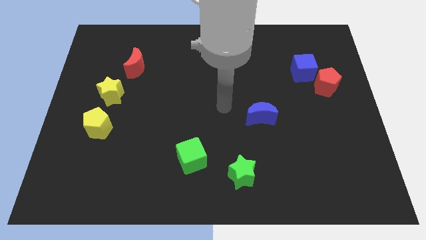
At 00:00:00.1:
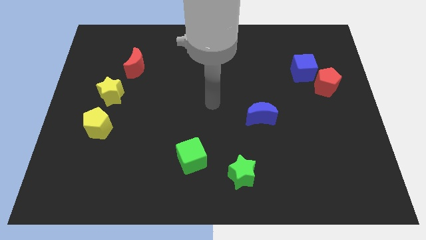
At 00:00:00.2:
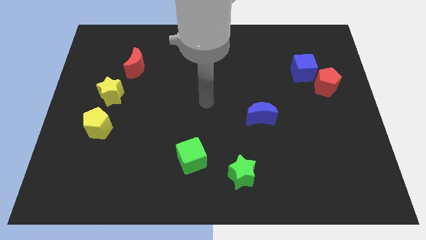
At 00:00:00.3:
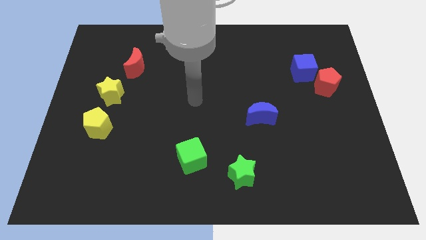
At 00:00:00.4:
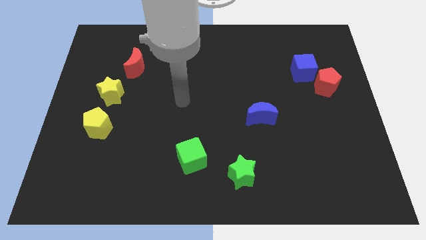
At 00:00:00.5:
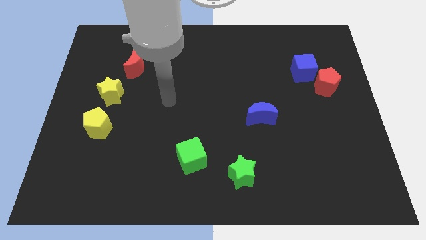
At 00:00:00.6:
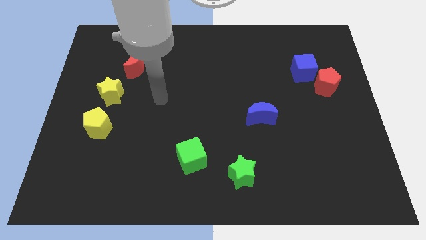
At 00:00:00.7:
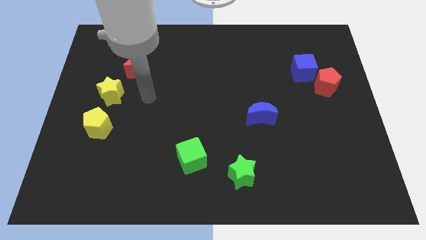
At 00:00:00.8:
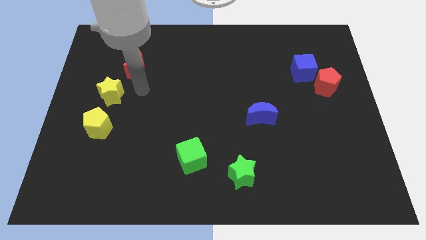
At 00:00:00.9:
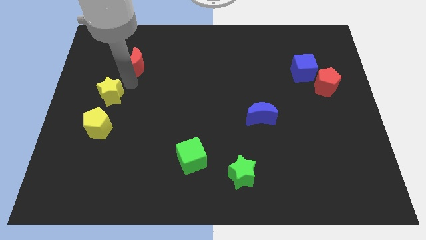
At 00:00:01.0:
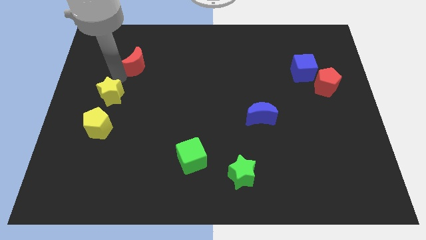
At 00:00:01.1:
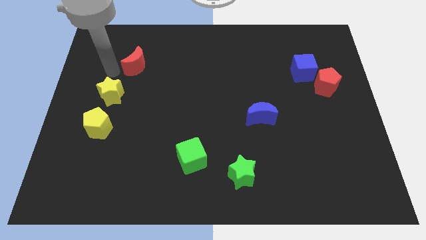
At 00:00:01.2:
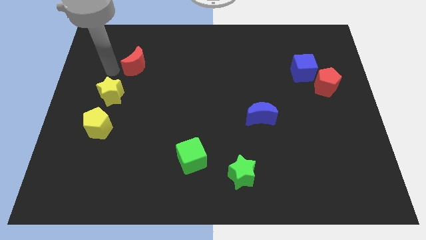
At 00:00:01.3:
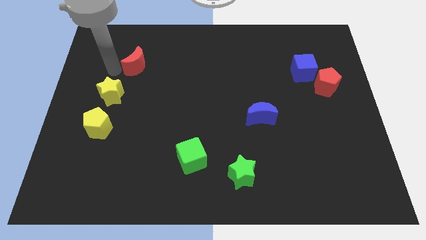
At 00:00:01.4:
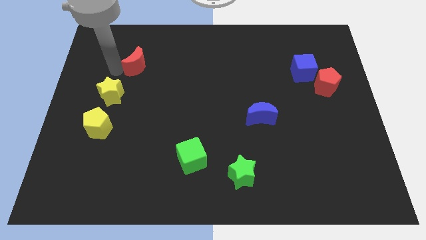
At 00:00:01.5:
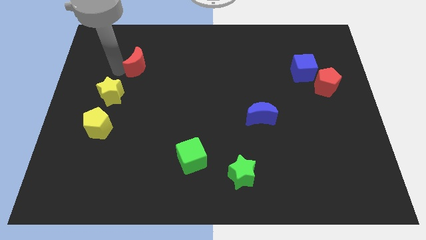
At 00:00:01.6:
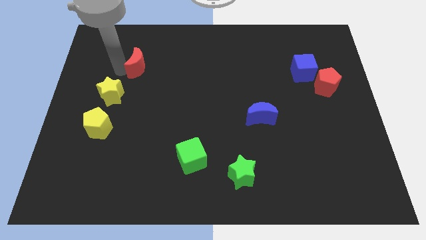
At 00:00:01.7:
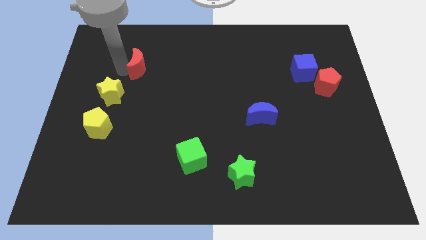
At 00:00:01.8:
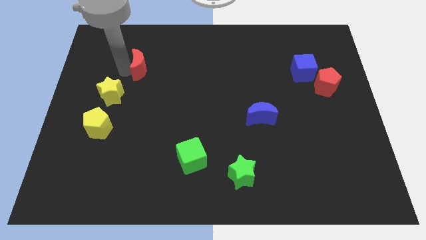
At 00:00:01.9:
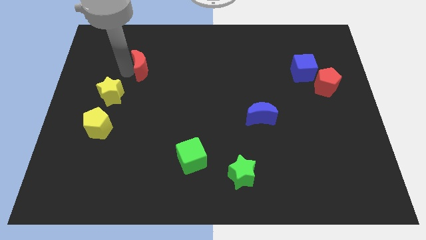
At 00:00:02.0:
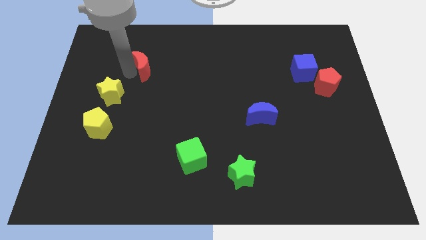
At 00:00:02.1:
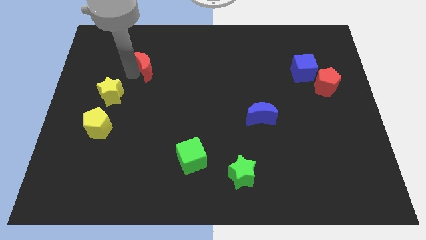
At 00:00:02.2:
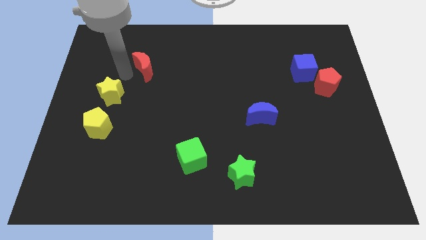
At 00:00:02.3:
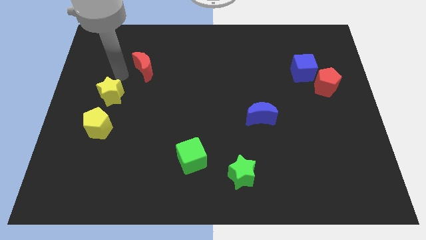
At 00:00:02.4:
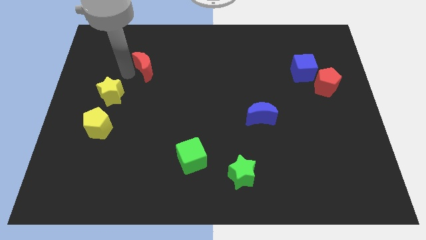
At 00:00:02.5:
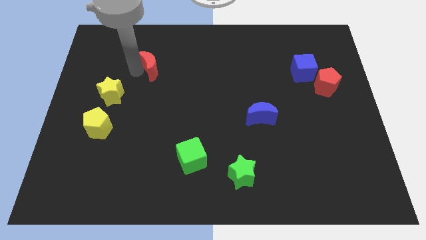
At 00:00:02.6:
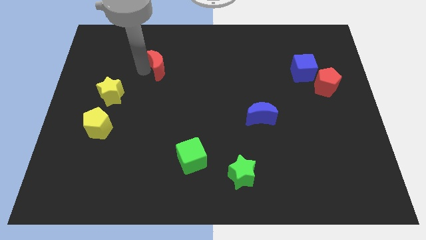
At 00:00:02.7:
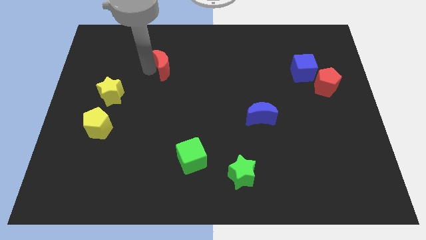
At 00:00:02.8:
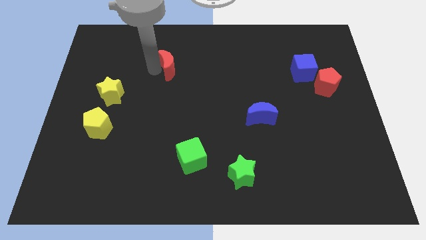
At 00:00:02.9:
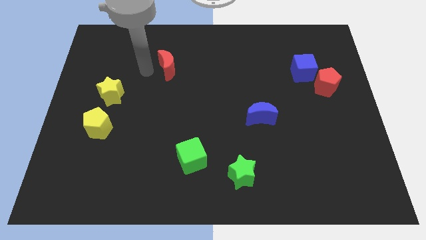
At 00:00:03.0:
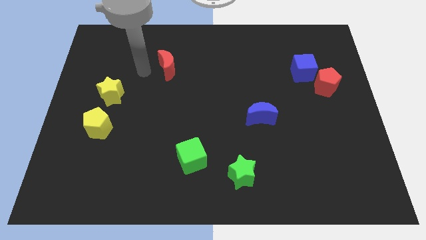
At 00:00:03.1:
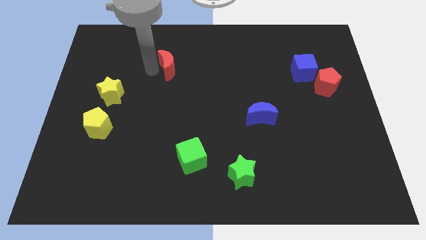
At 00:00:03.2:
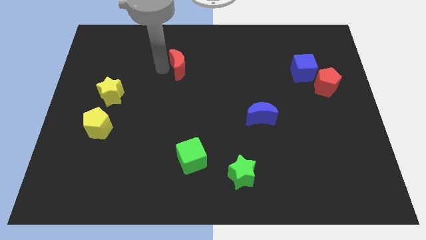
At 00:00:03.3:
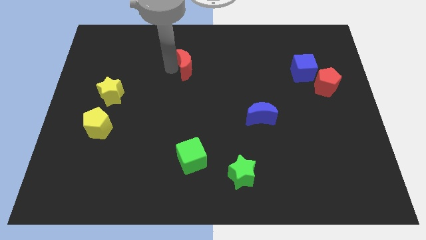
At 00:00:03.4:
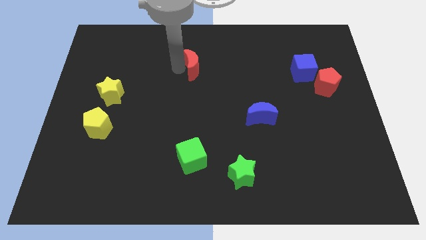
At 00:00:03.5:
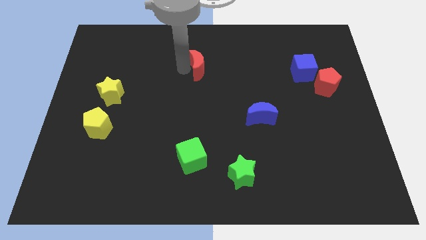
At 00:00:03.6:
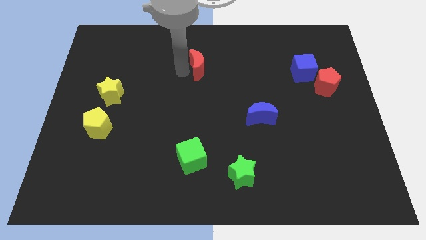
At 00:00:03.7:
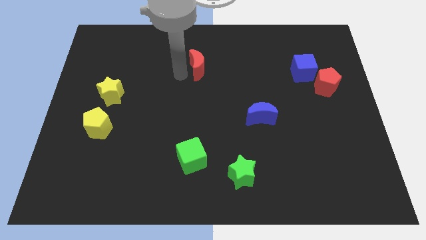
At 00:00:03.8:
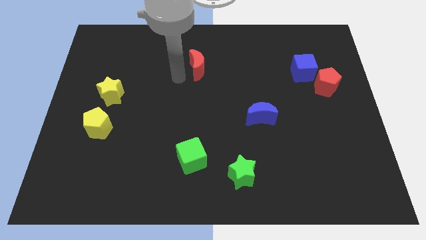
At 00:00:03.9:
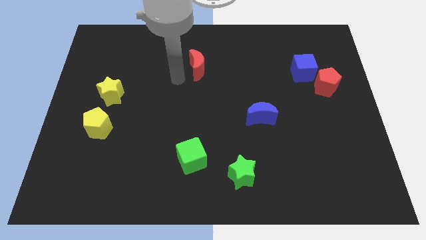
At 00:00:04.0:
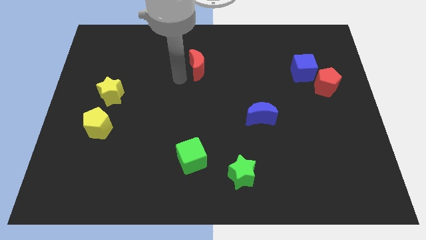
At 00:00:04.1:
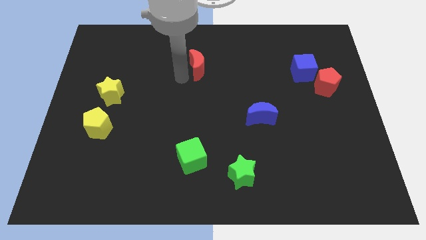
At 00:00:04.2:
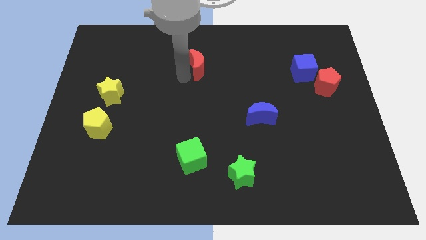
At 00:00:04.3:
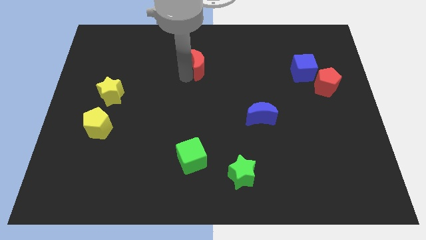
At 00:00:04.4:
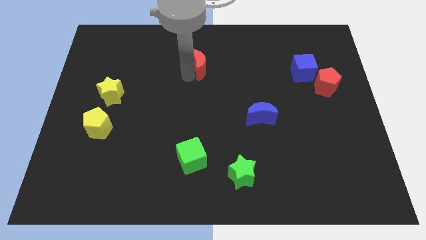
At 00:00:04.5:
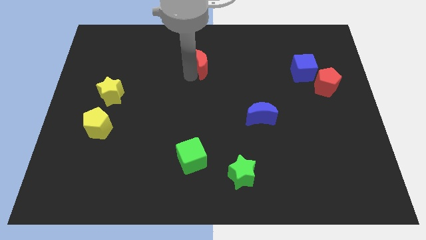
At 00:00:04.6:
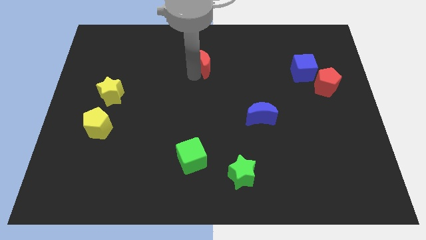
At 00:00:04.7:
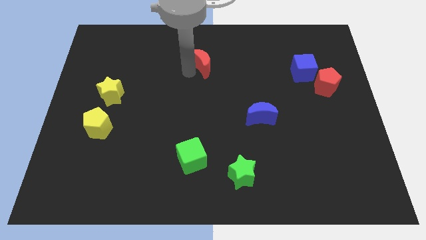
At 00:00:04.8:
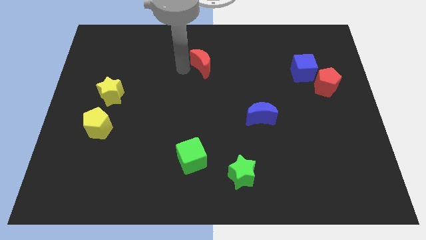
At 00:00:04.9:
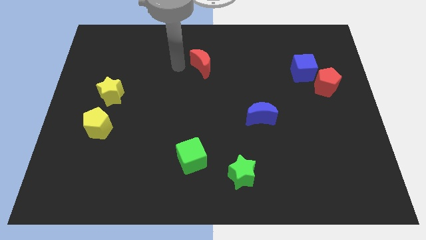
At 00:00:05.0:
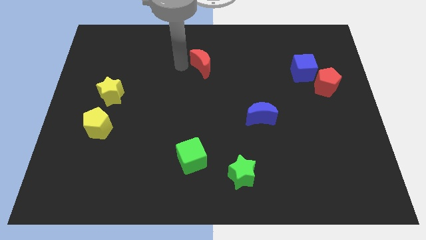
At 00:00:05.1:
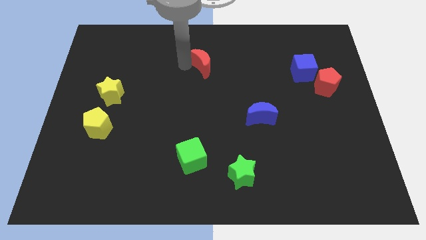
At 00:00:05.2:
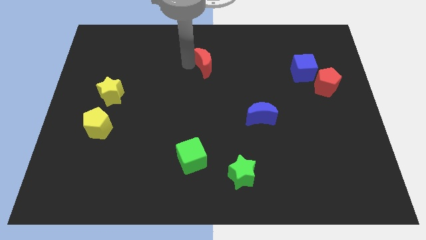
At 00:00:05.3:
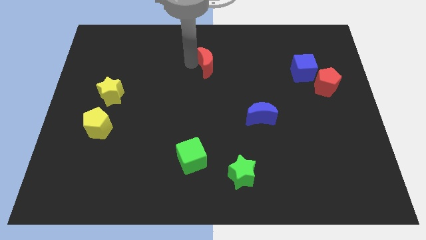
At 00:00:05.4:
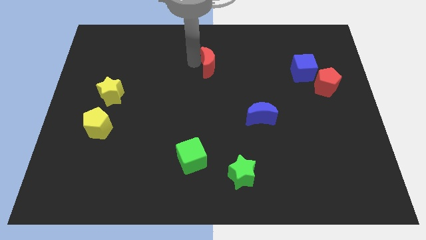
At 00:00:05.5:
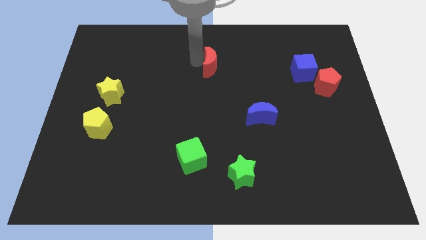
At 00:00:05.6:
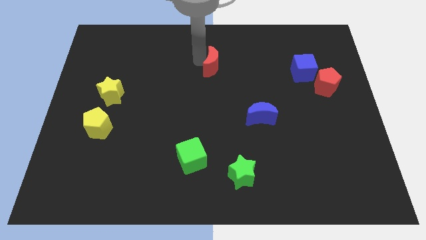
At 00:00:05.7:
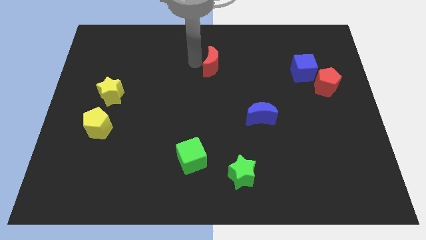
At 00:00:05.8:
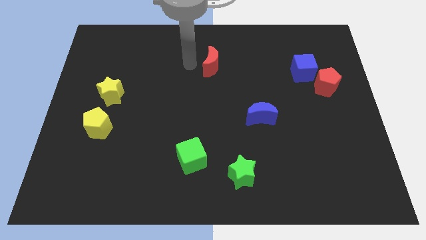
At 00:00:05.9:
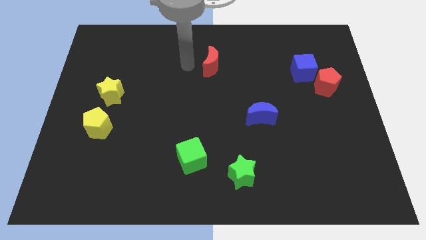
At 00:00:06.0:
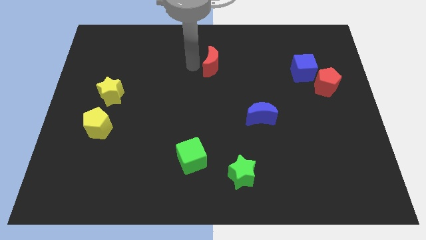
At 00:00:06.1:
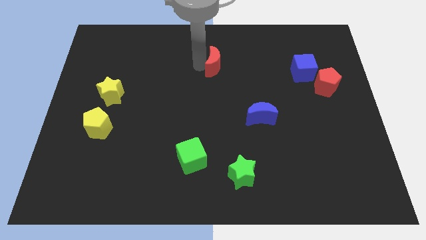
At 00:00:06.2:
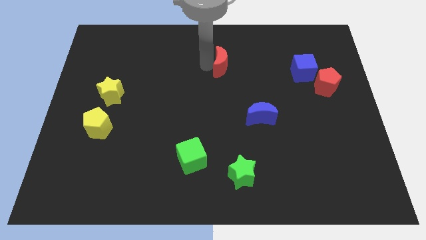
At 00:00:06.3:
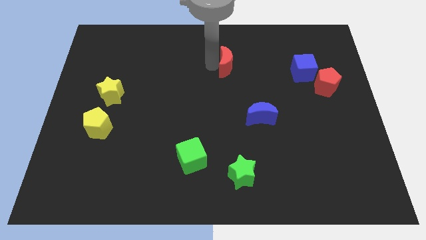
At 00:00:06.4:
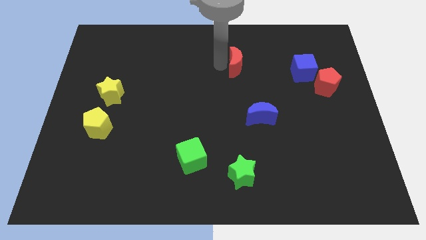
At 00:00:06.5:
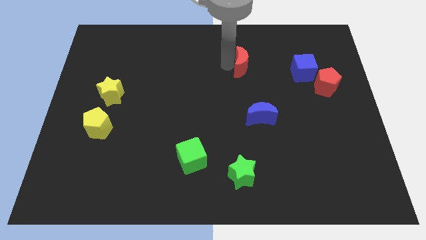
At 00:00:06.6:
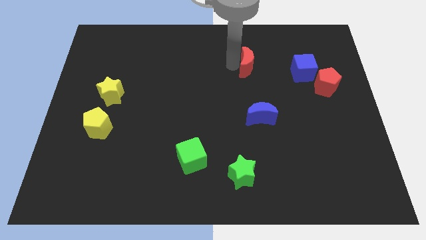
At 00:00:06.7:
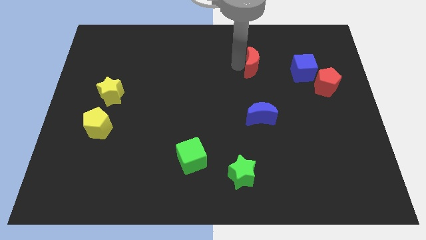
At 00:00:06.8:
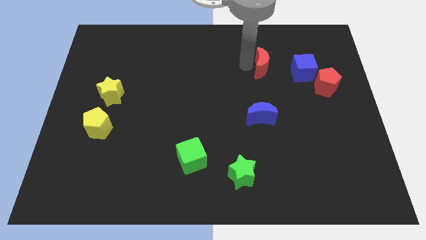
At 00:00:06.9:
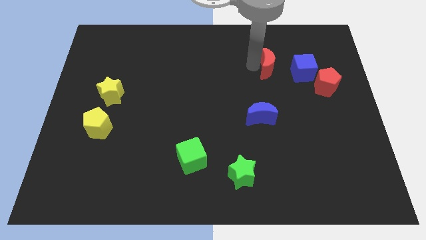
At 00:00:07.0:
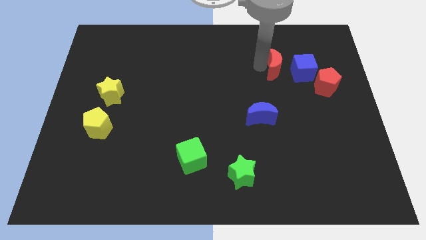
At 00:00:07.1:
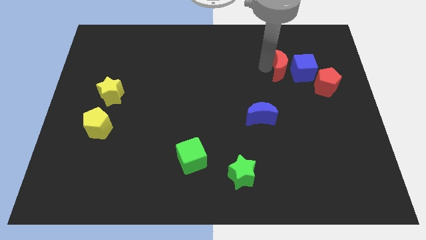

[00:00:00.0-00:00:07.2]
move the red moon to the blue cube

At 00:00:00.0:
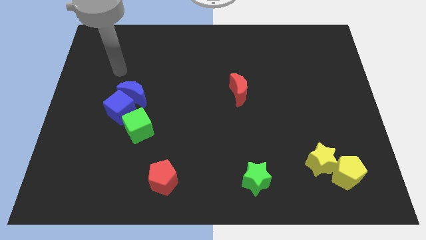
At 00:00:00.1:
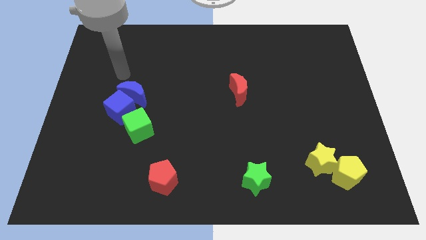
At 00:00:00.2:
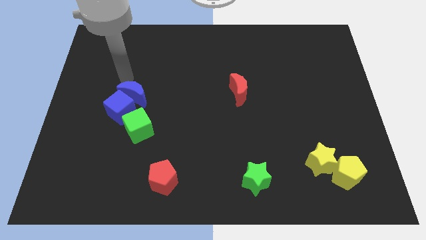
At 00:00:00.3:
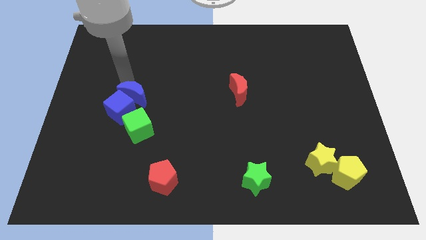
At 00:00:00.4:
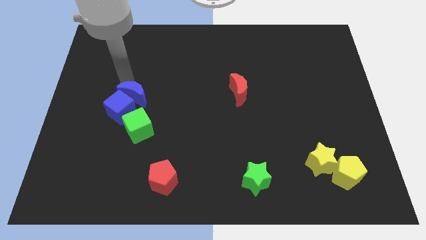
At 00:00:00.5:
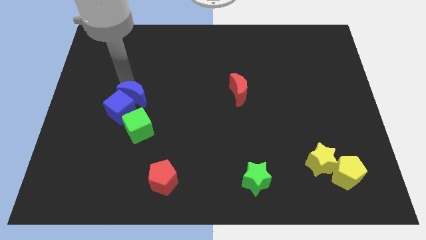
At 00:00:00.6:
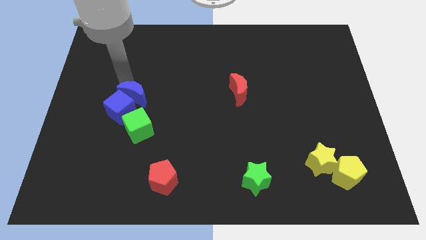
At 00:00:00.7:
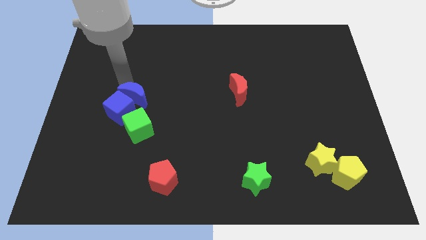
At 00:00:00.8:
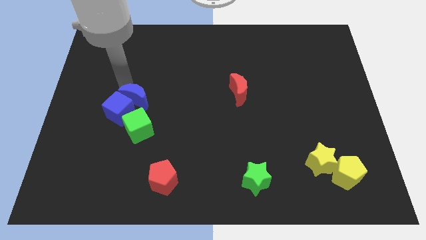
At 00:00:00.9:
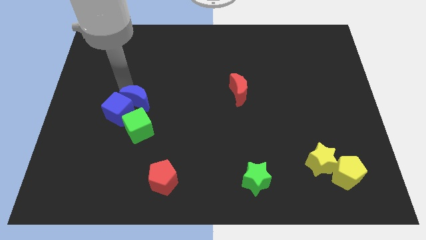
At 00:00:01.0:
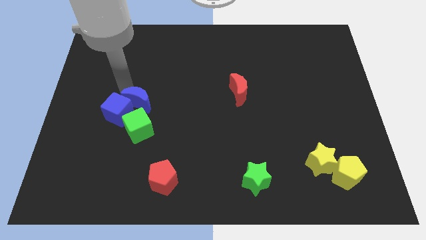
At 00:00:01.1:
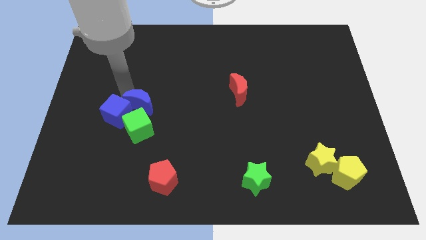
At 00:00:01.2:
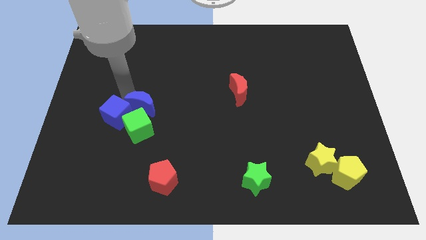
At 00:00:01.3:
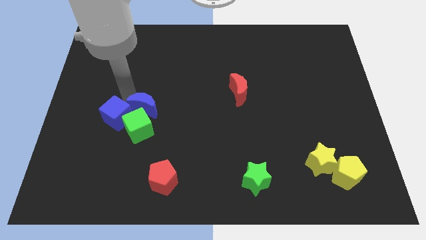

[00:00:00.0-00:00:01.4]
slide the blue moon to the green cube
